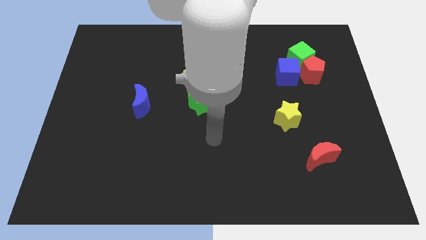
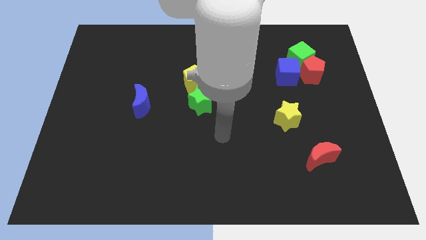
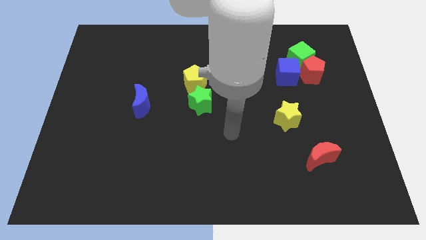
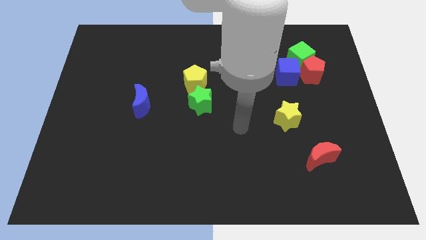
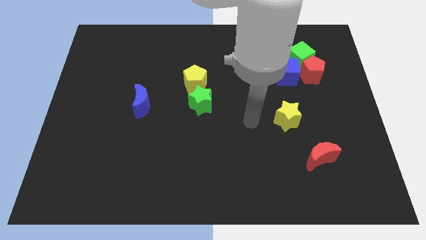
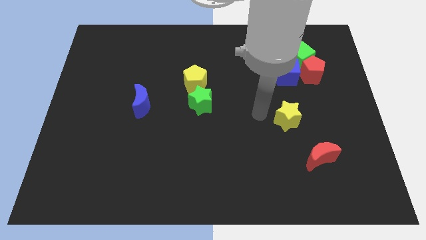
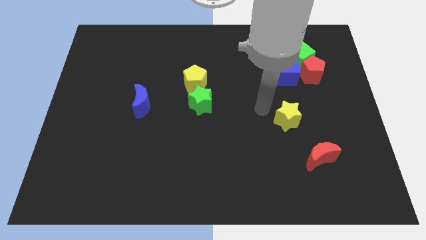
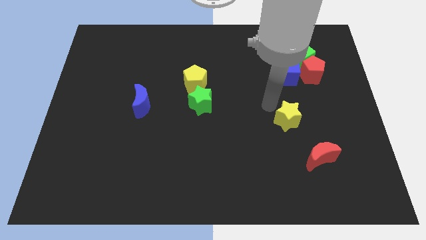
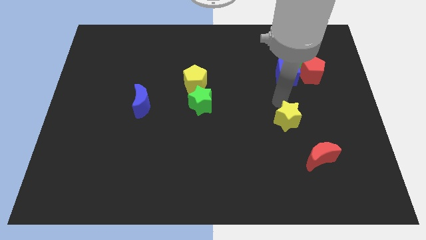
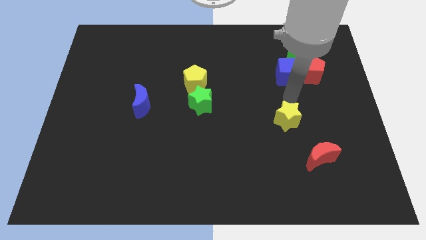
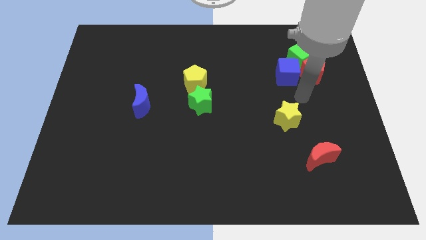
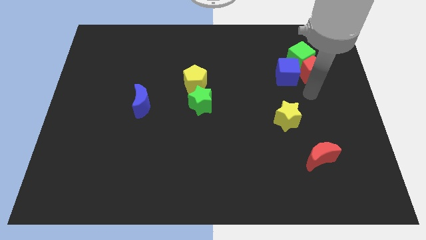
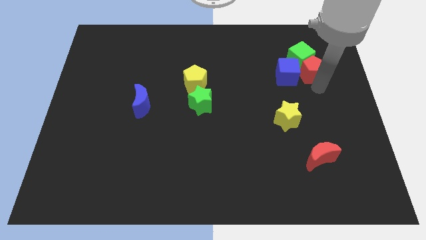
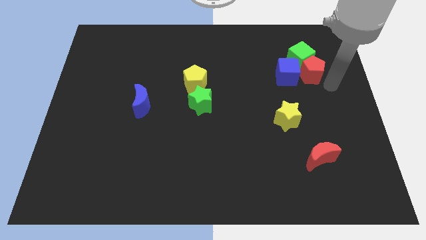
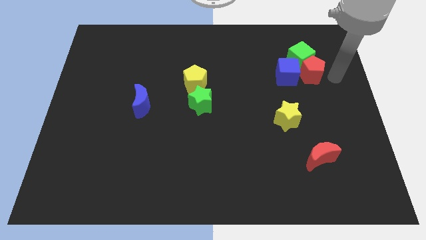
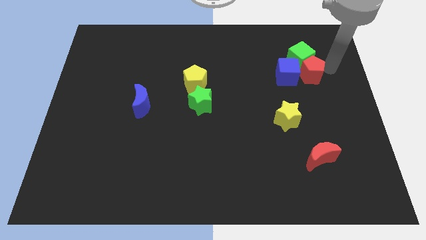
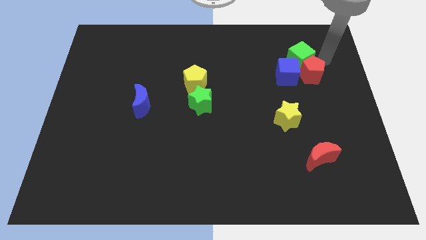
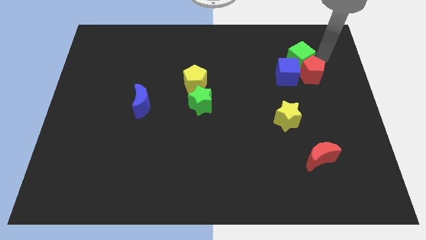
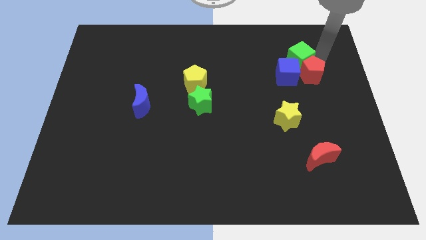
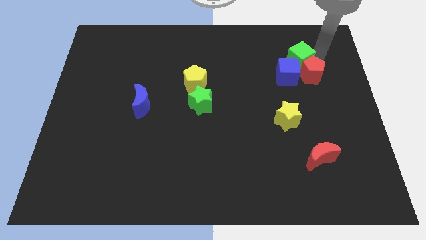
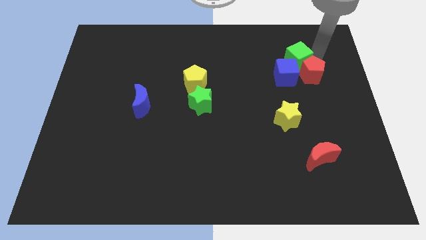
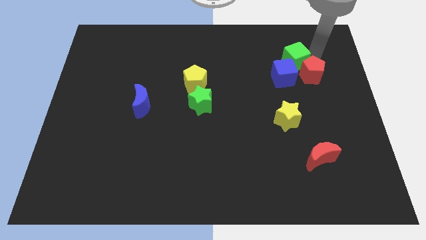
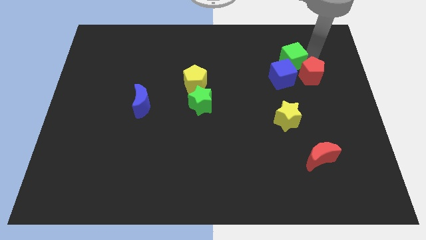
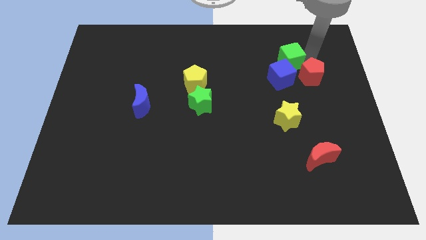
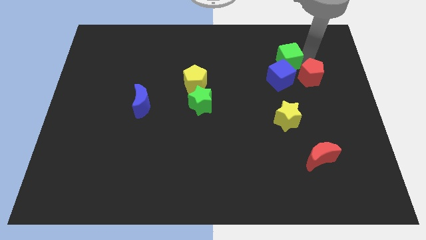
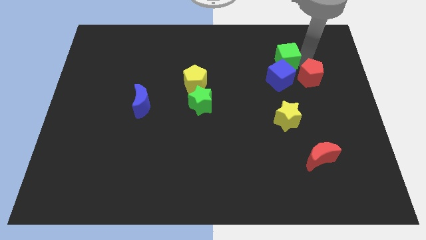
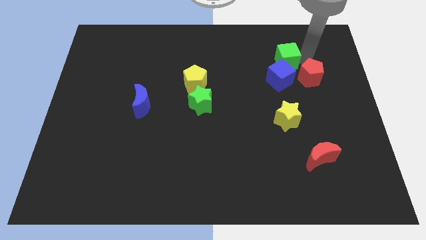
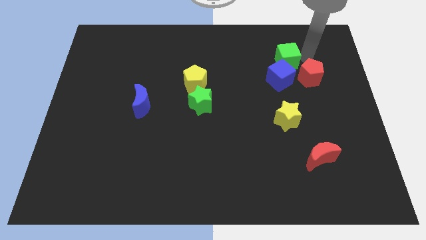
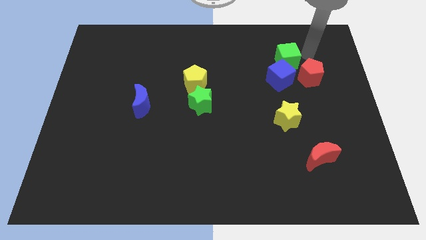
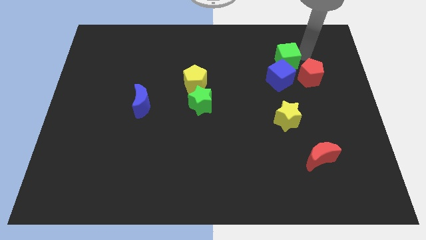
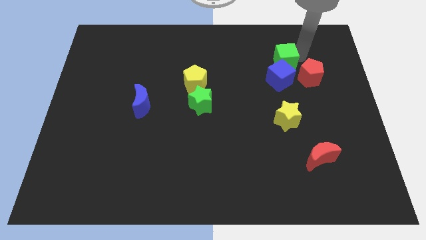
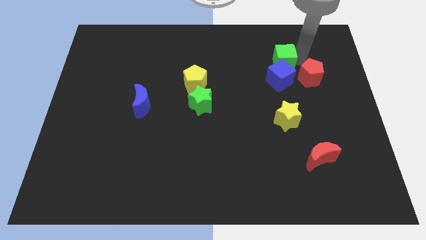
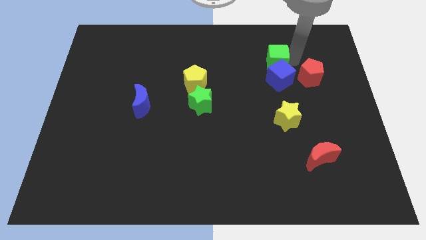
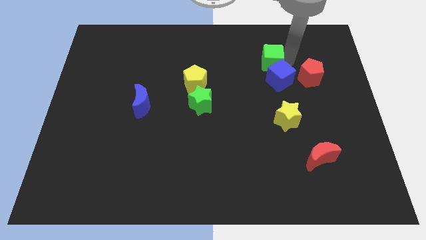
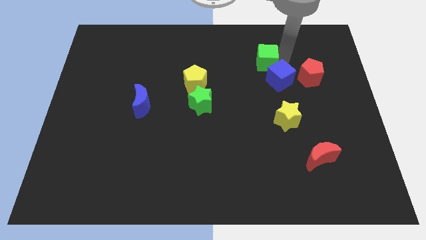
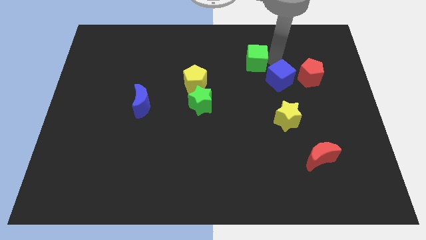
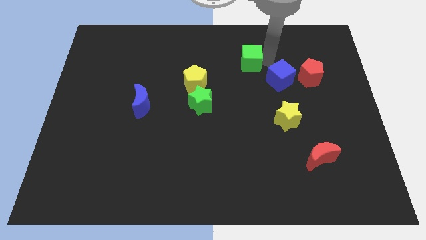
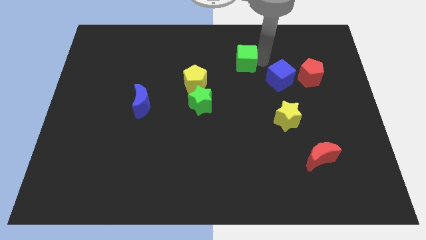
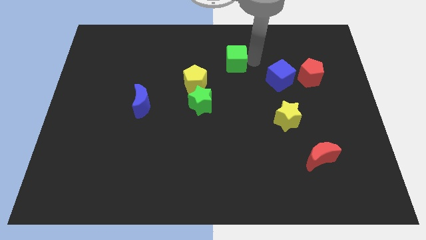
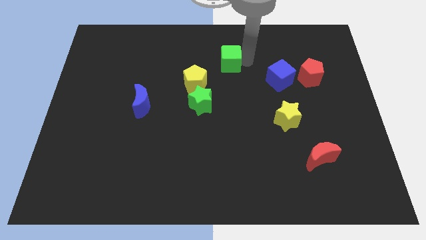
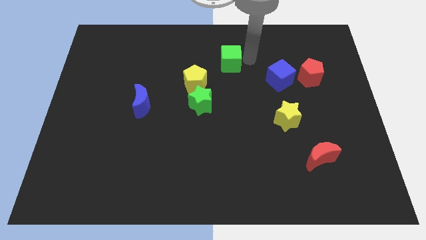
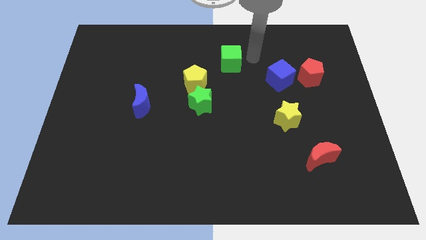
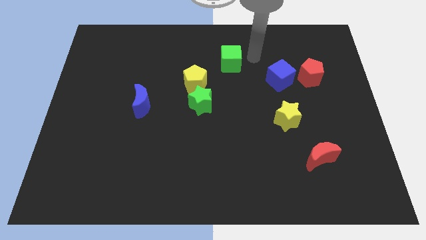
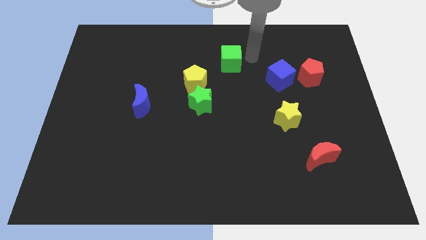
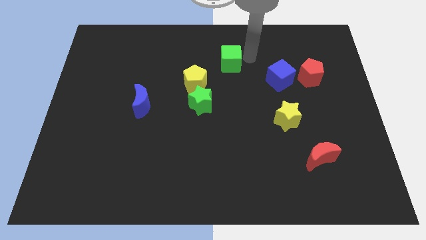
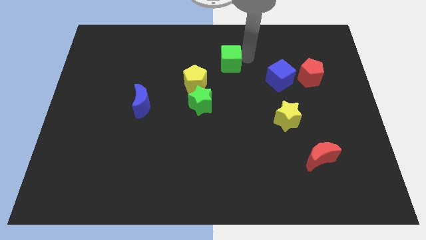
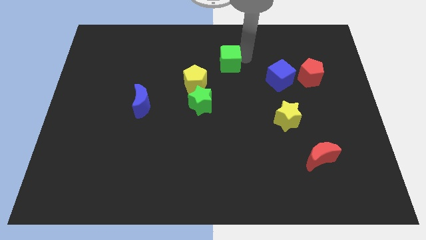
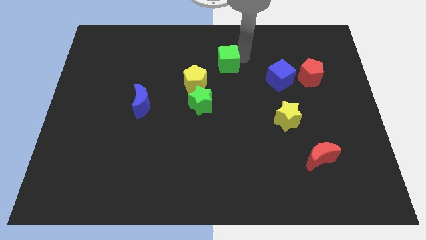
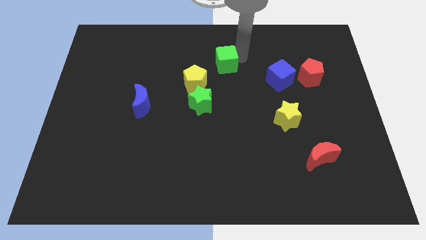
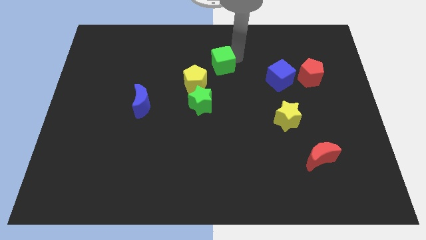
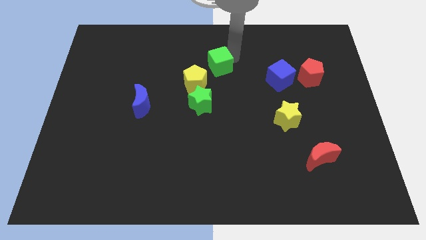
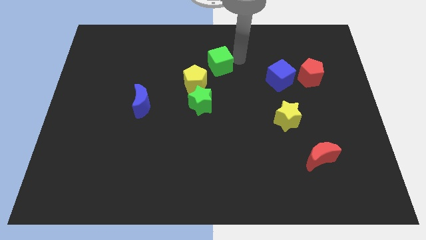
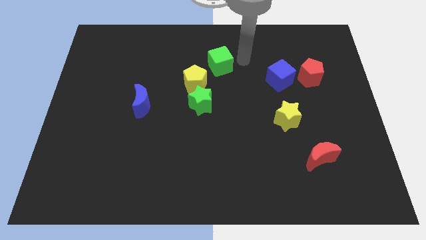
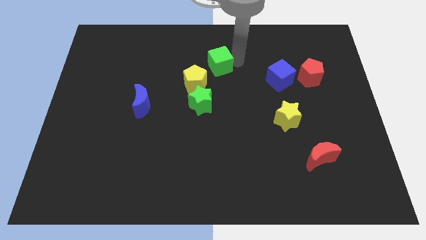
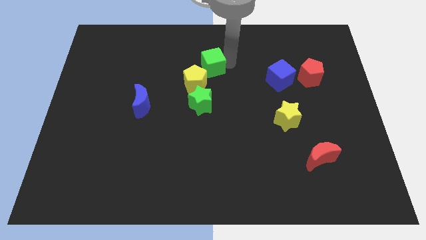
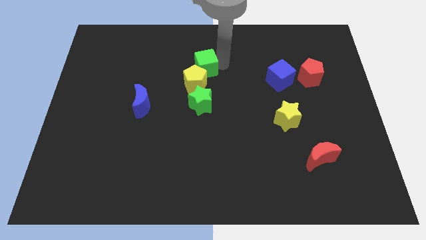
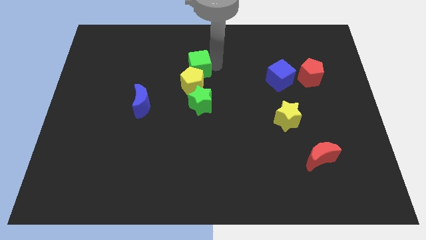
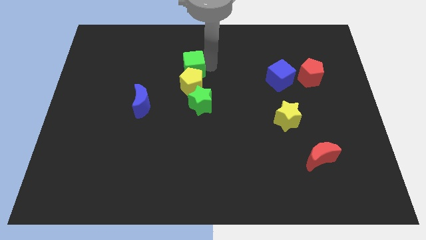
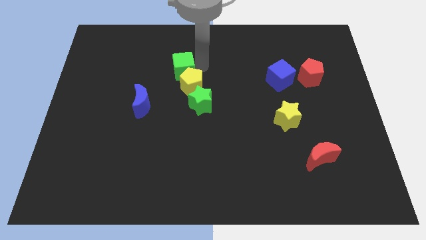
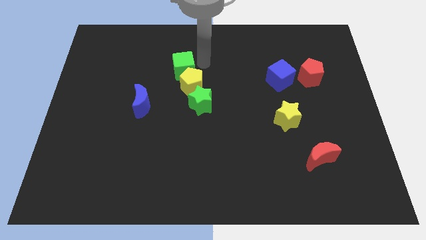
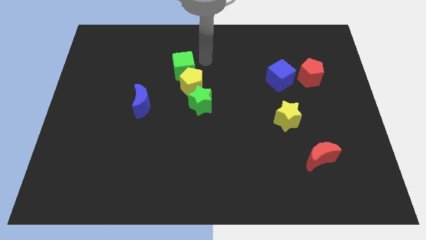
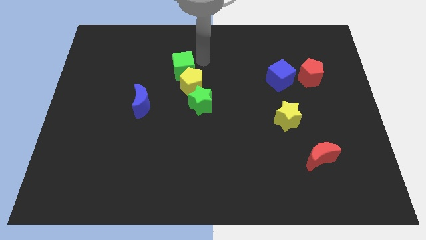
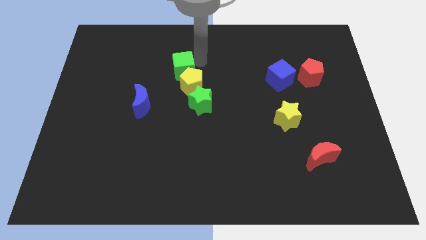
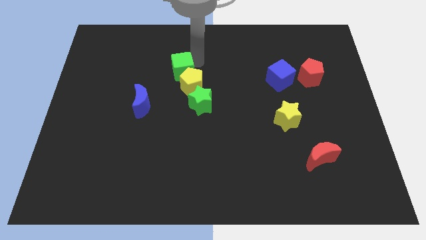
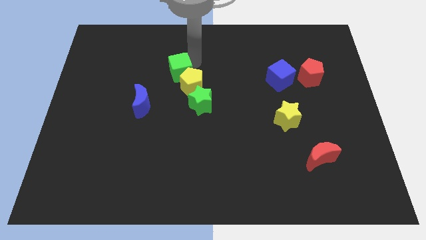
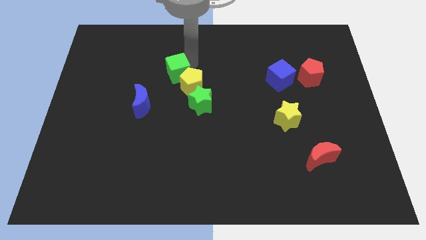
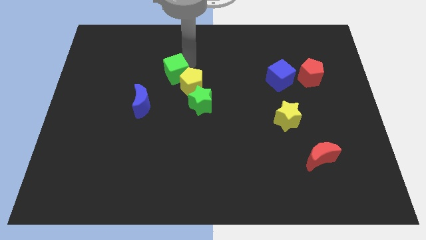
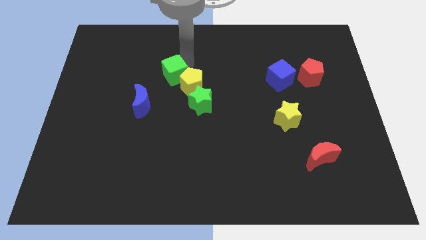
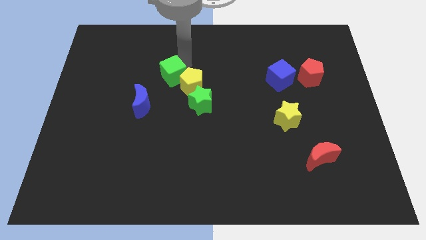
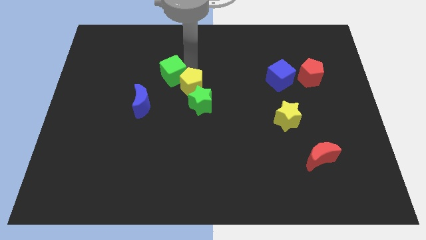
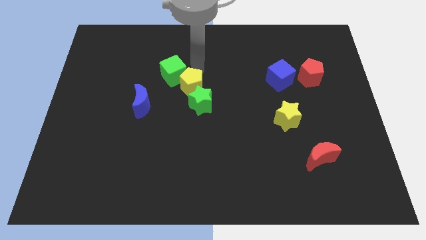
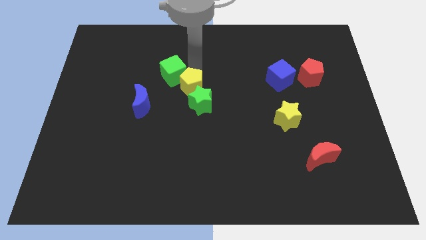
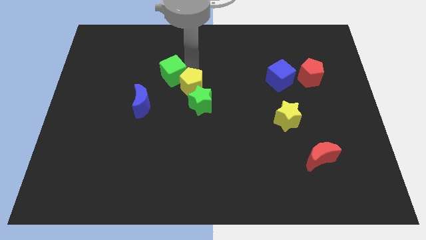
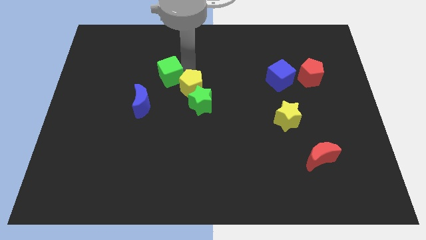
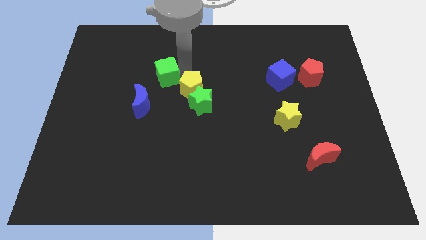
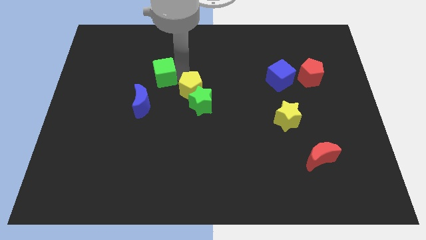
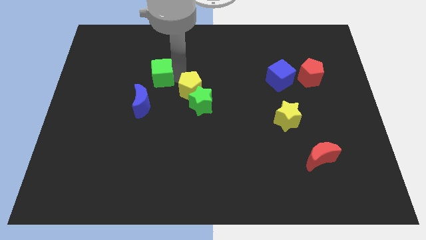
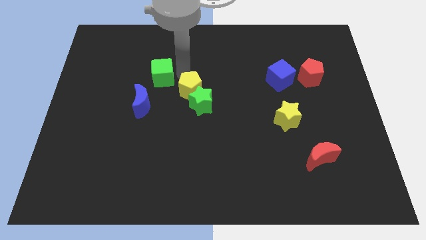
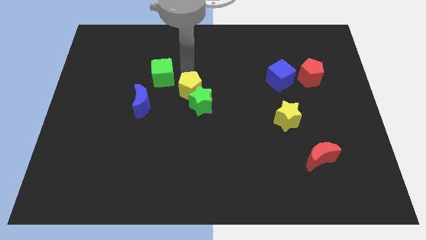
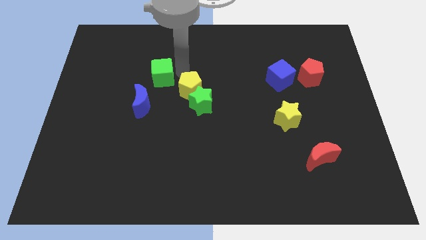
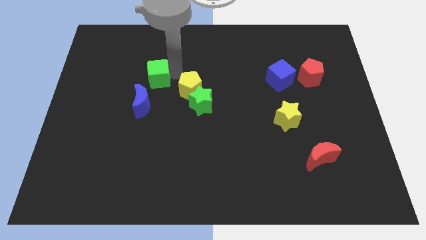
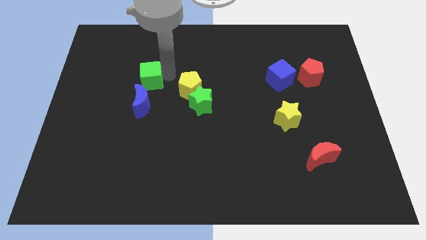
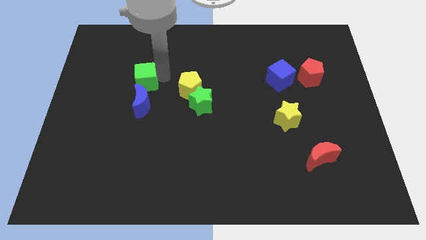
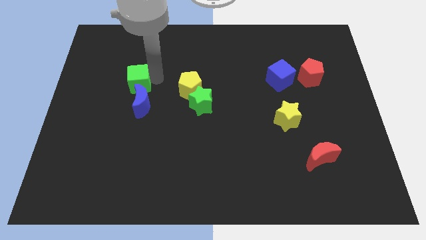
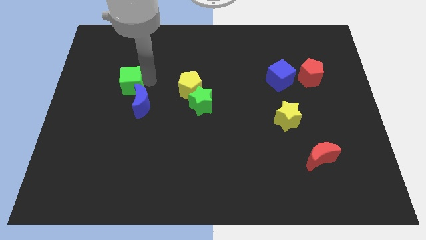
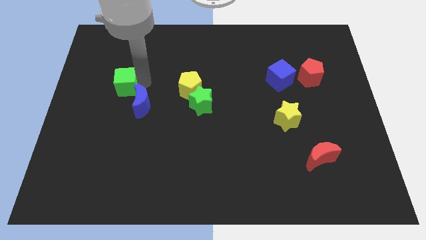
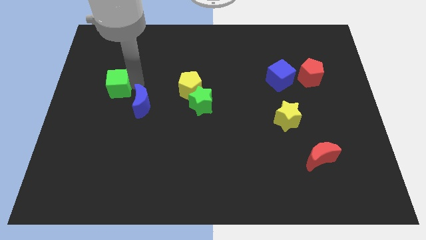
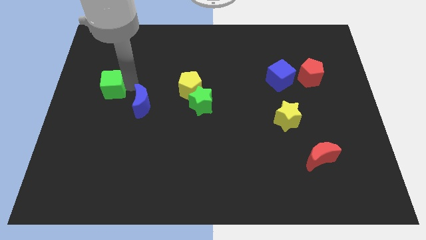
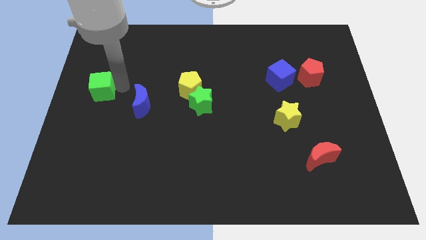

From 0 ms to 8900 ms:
put the green cube to the left side of the board
